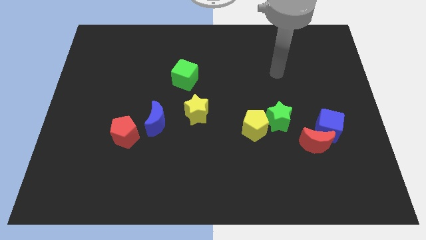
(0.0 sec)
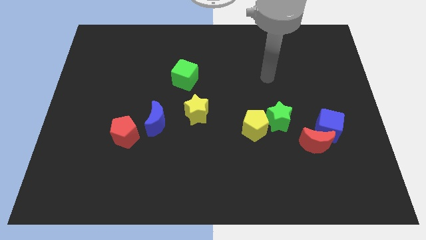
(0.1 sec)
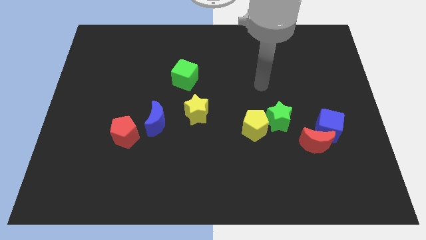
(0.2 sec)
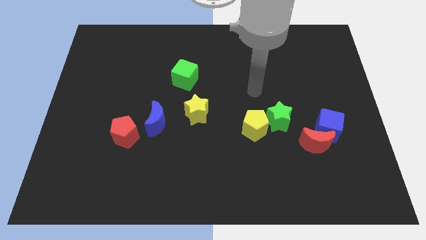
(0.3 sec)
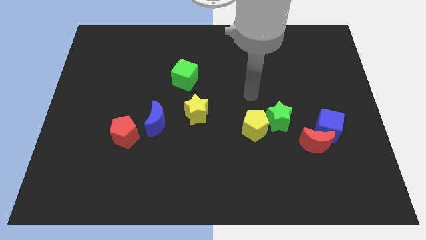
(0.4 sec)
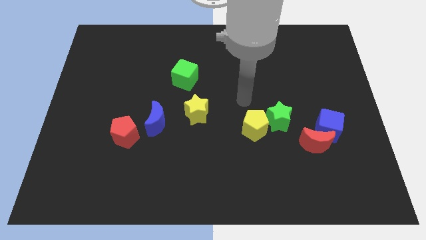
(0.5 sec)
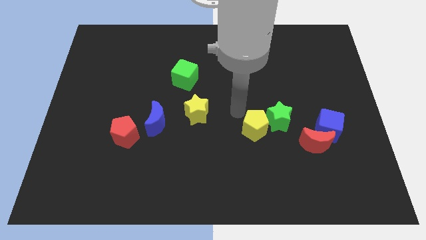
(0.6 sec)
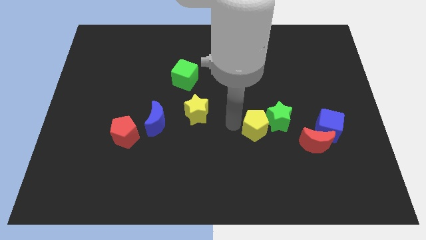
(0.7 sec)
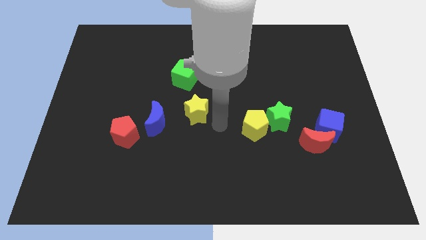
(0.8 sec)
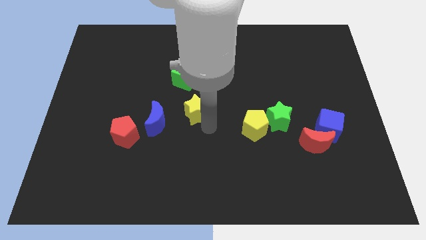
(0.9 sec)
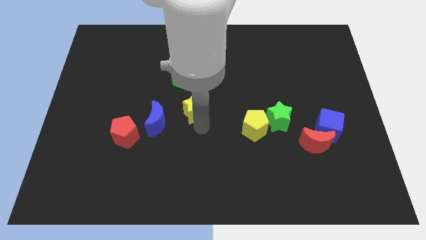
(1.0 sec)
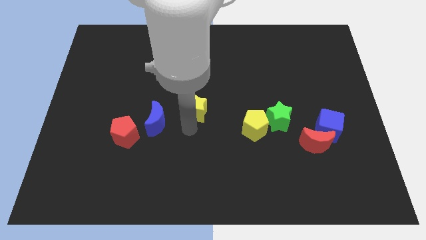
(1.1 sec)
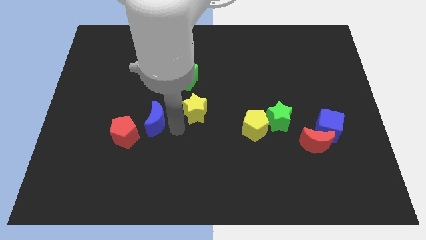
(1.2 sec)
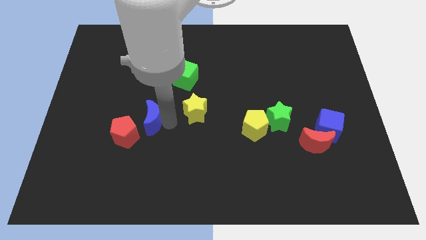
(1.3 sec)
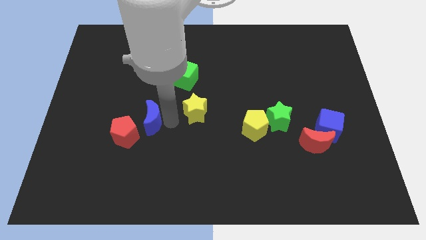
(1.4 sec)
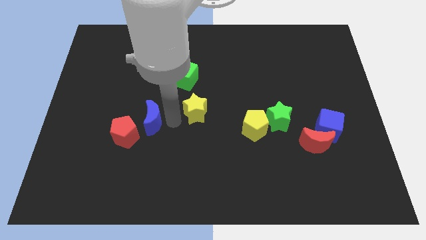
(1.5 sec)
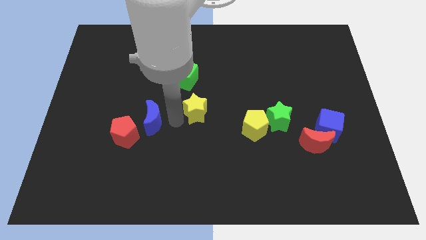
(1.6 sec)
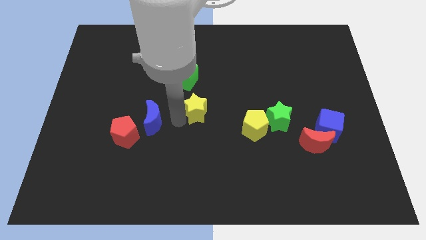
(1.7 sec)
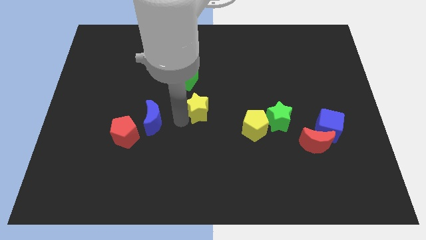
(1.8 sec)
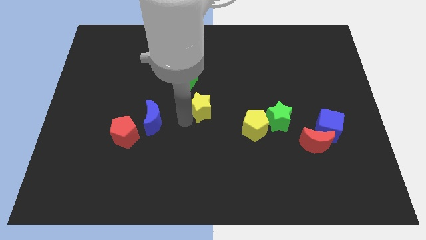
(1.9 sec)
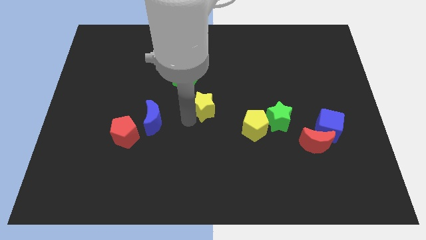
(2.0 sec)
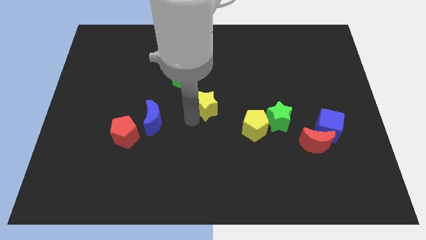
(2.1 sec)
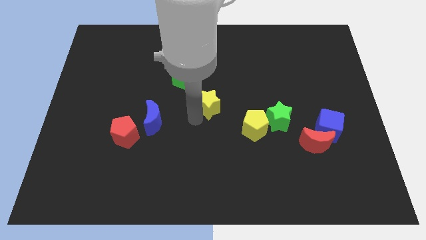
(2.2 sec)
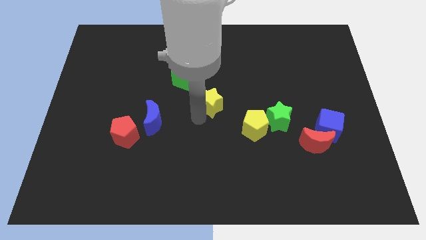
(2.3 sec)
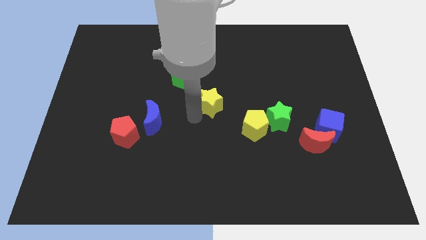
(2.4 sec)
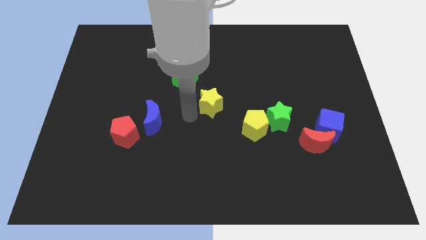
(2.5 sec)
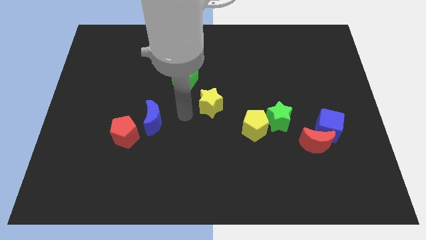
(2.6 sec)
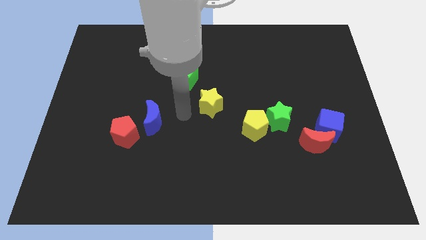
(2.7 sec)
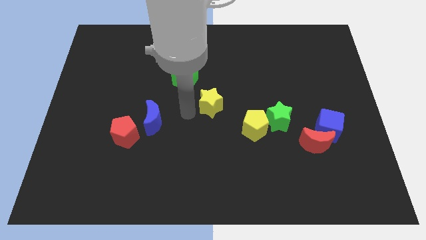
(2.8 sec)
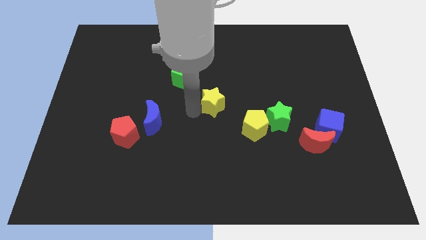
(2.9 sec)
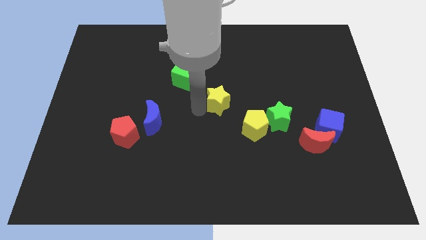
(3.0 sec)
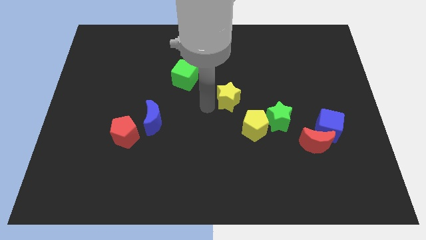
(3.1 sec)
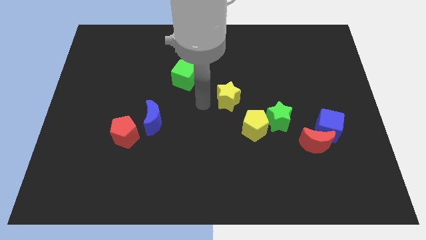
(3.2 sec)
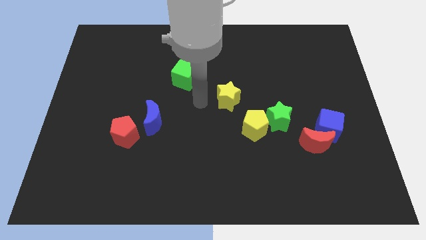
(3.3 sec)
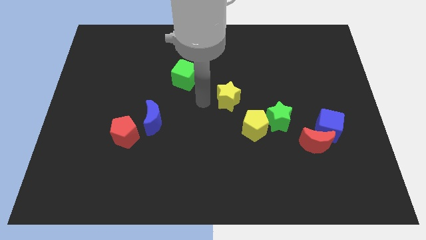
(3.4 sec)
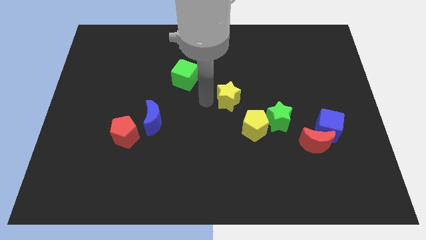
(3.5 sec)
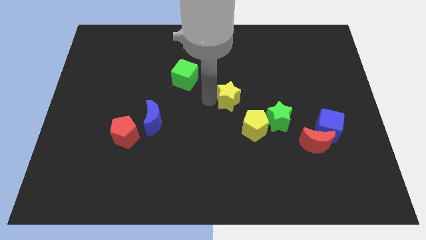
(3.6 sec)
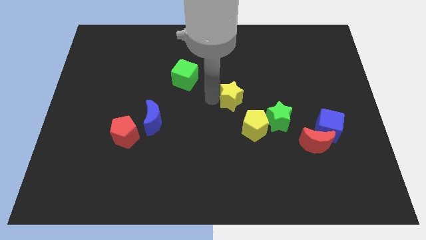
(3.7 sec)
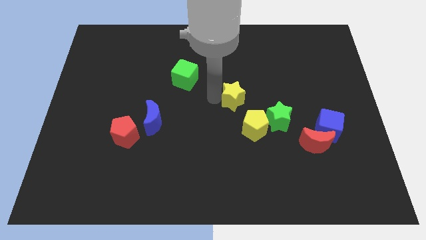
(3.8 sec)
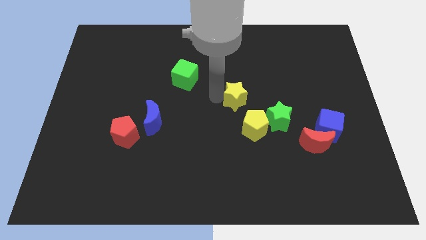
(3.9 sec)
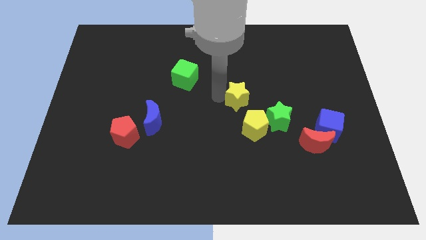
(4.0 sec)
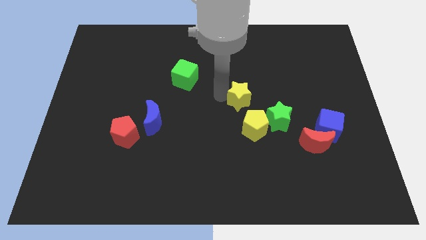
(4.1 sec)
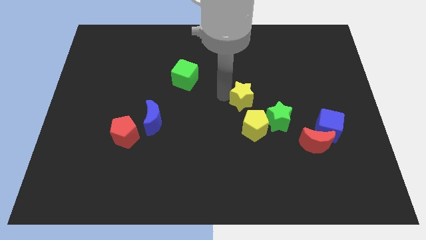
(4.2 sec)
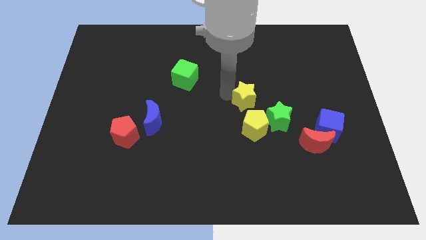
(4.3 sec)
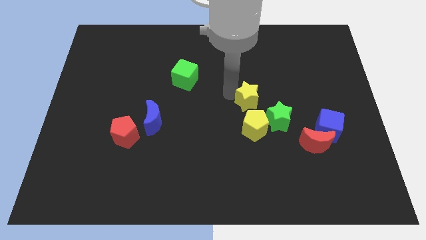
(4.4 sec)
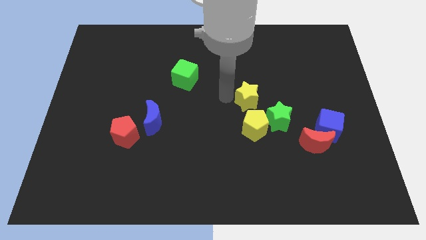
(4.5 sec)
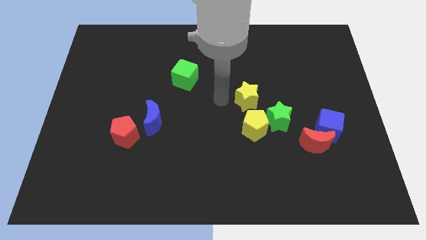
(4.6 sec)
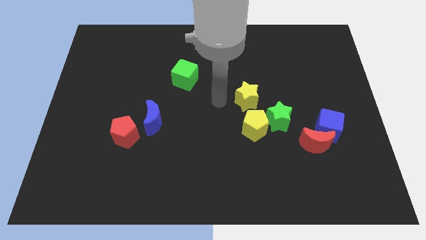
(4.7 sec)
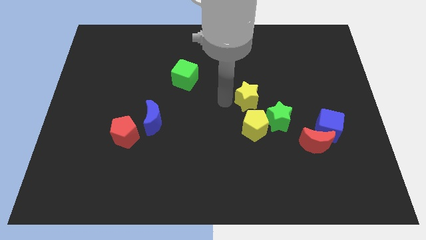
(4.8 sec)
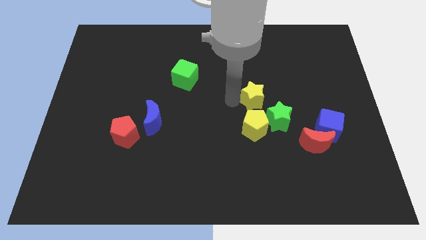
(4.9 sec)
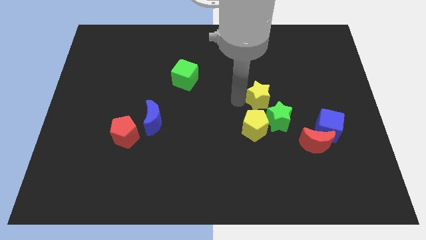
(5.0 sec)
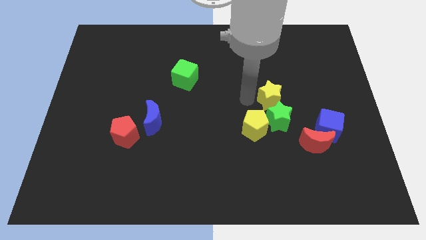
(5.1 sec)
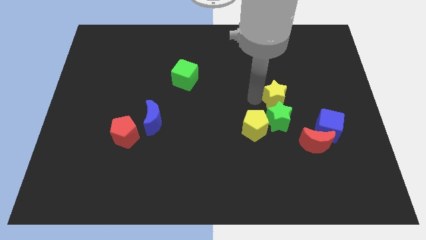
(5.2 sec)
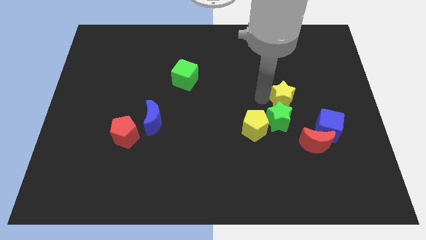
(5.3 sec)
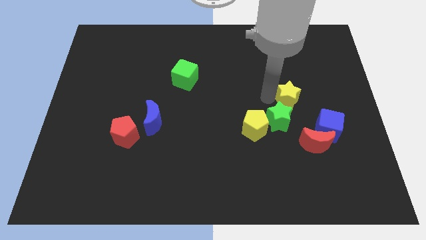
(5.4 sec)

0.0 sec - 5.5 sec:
move the yellow star to the right

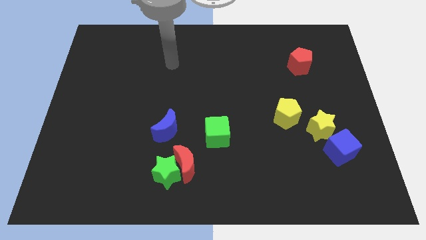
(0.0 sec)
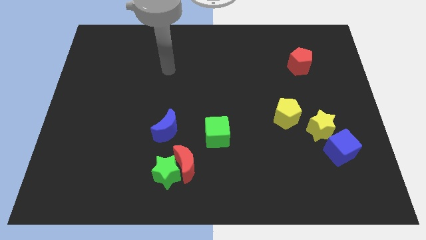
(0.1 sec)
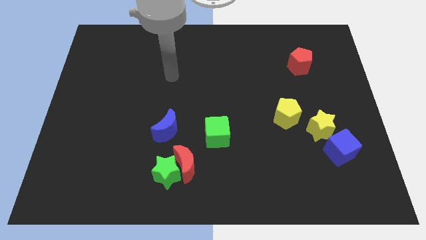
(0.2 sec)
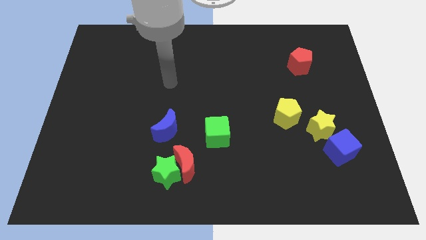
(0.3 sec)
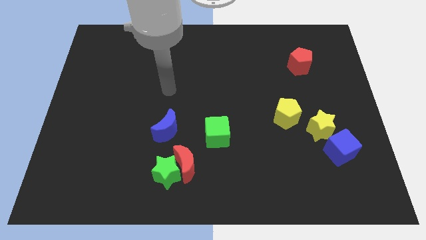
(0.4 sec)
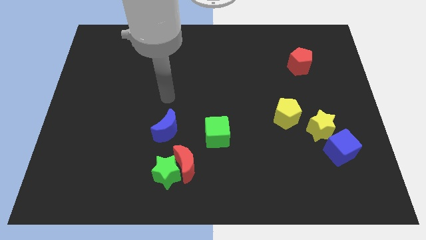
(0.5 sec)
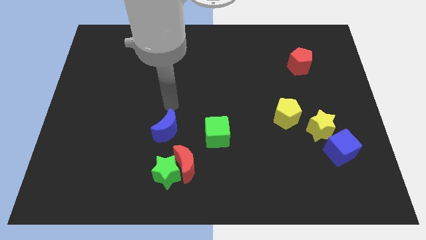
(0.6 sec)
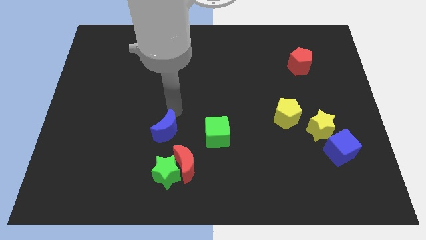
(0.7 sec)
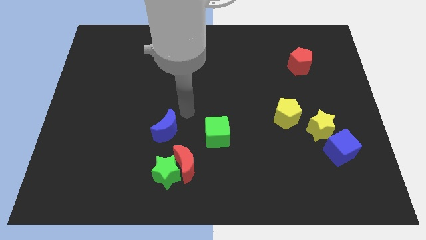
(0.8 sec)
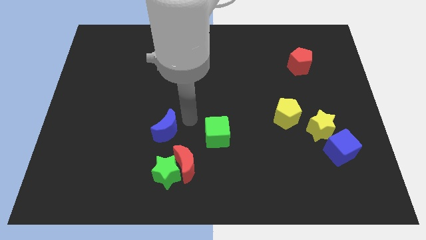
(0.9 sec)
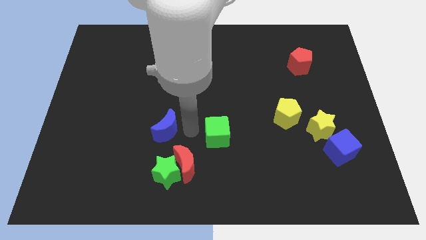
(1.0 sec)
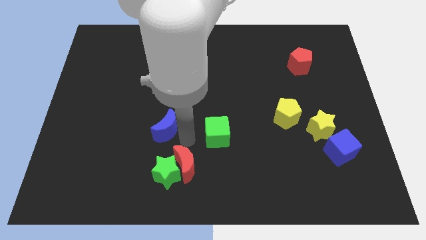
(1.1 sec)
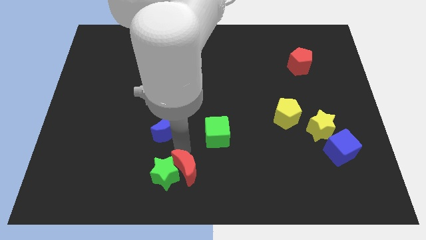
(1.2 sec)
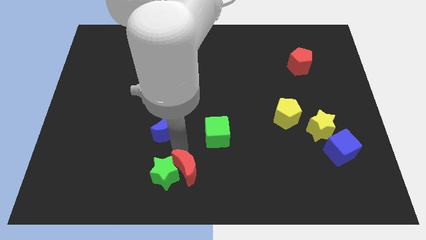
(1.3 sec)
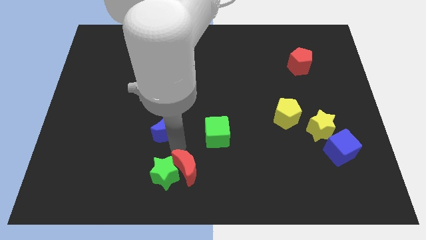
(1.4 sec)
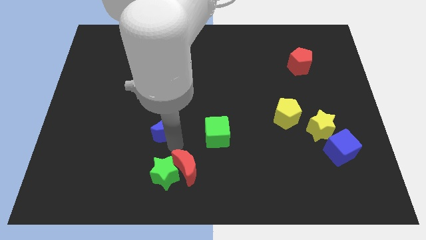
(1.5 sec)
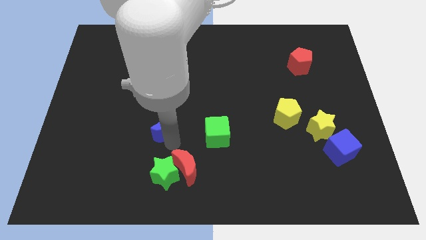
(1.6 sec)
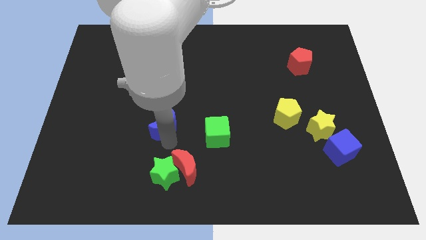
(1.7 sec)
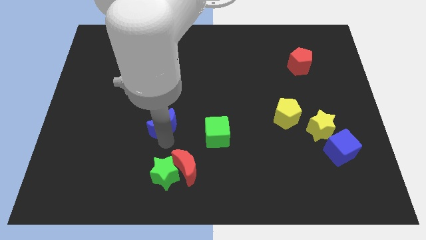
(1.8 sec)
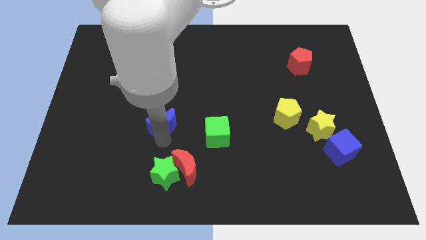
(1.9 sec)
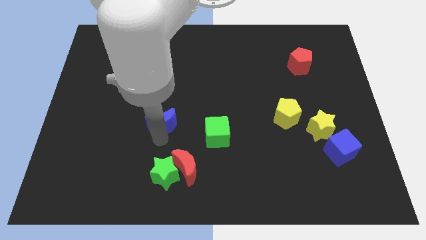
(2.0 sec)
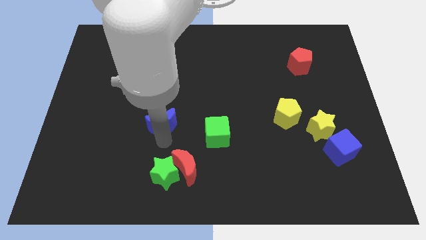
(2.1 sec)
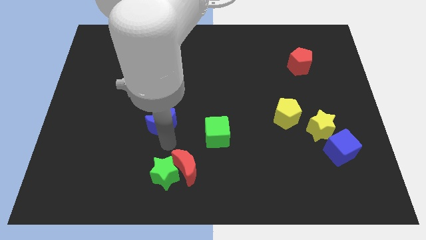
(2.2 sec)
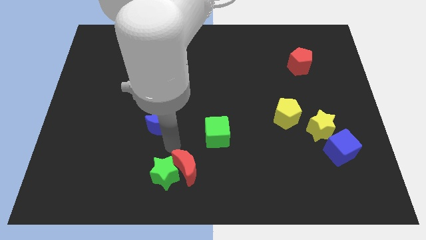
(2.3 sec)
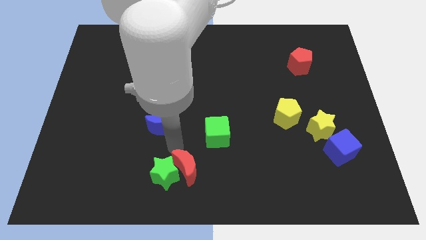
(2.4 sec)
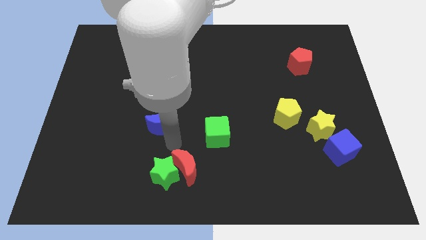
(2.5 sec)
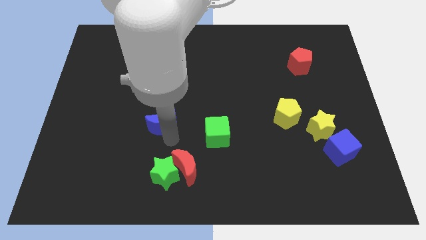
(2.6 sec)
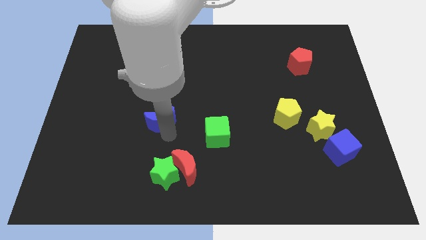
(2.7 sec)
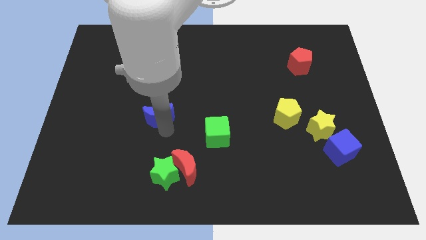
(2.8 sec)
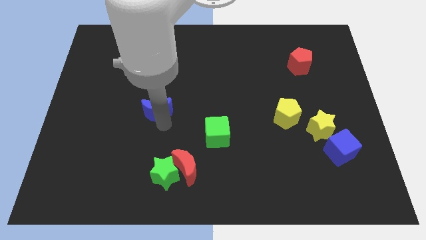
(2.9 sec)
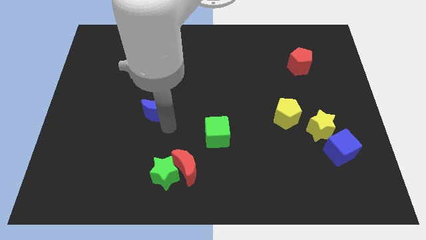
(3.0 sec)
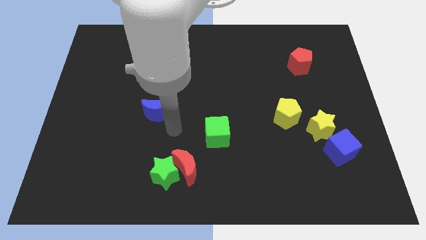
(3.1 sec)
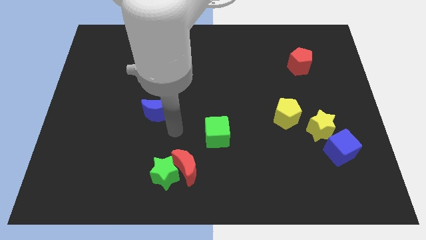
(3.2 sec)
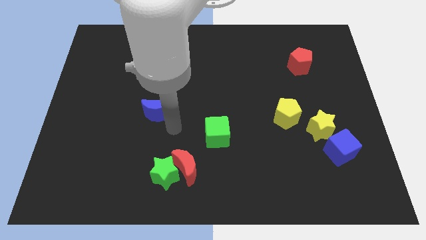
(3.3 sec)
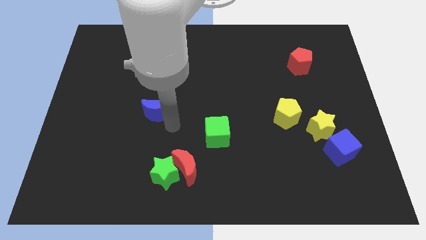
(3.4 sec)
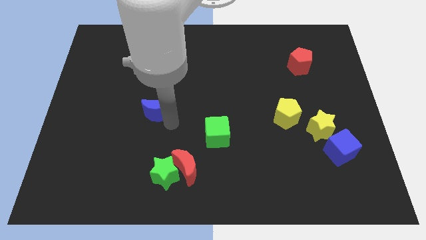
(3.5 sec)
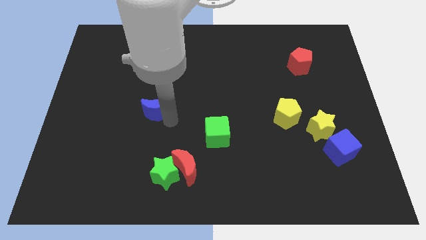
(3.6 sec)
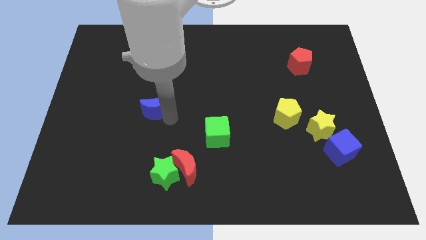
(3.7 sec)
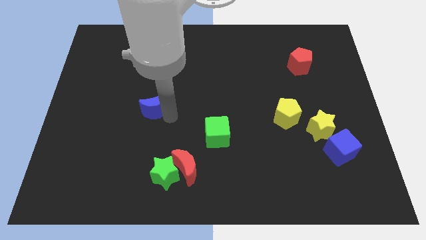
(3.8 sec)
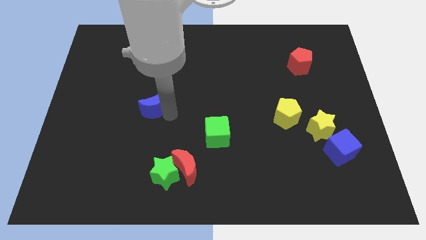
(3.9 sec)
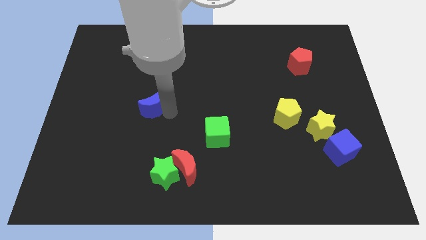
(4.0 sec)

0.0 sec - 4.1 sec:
slide the blue moon slightly up and to the left diagonally
